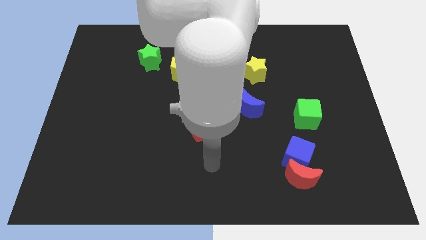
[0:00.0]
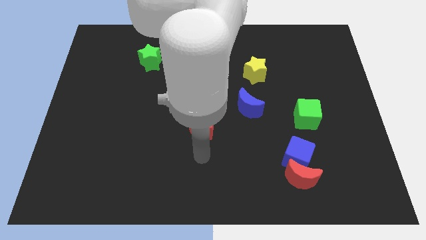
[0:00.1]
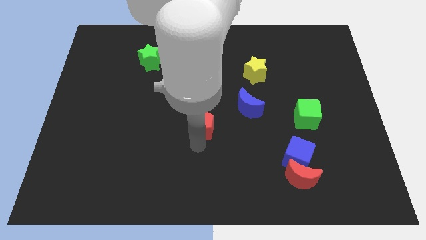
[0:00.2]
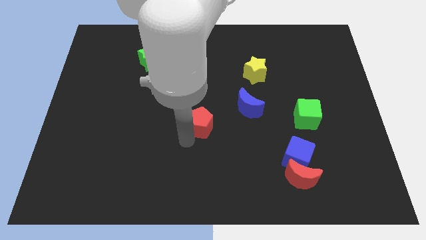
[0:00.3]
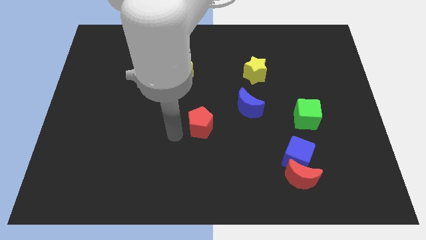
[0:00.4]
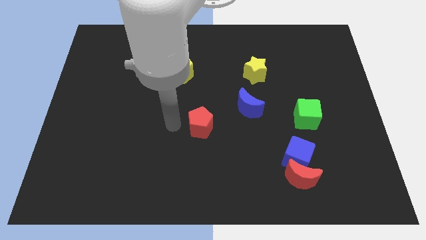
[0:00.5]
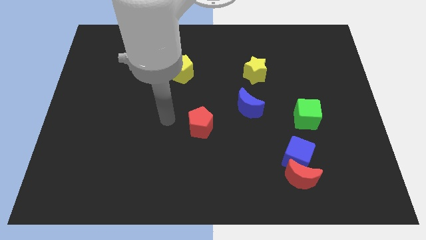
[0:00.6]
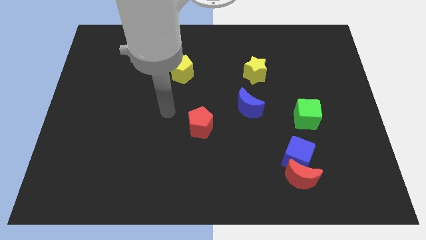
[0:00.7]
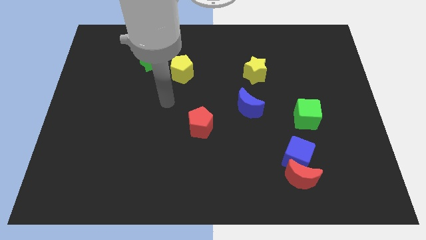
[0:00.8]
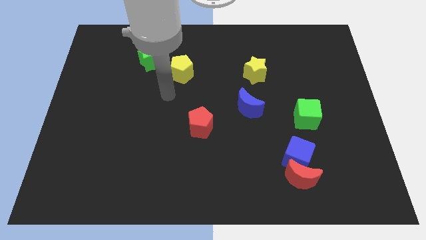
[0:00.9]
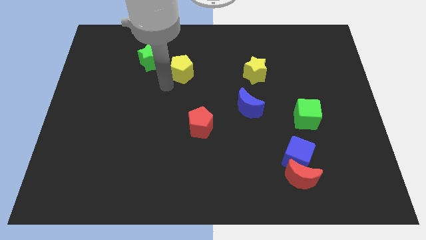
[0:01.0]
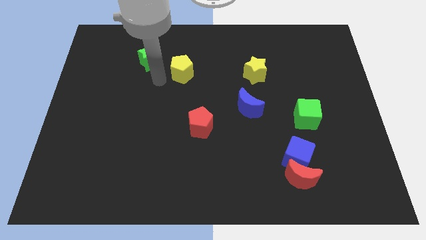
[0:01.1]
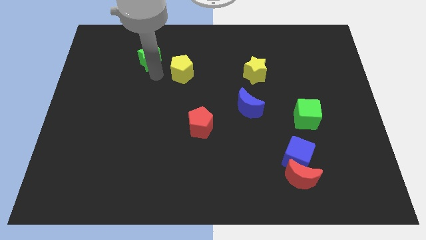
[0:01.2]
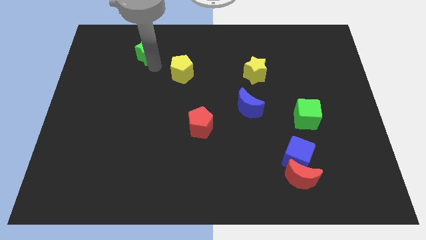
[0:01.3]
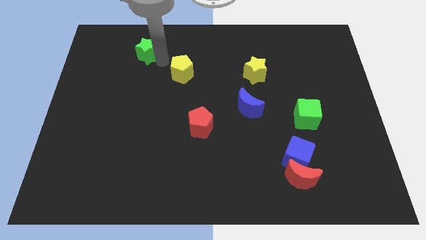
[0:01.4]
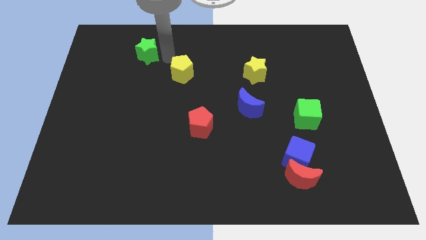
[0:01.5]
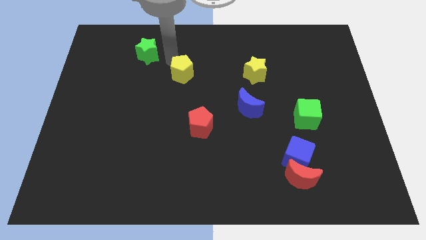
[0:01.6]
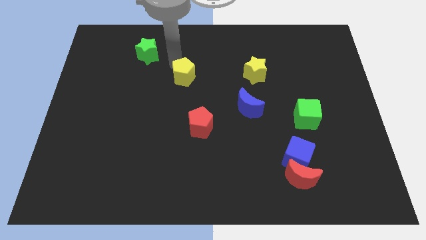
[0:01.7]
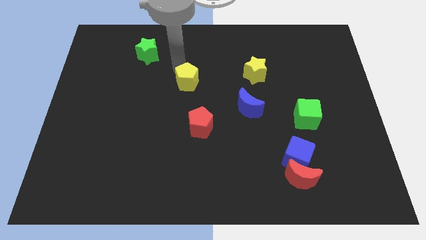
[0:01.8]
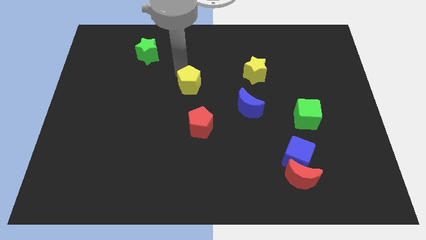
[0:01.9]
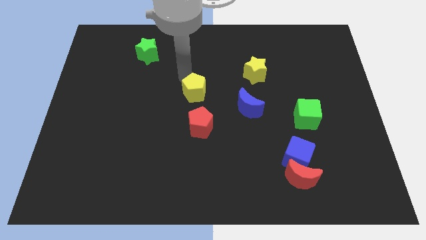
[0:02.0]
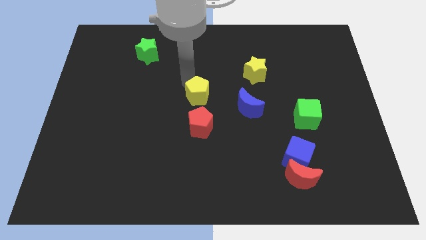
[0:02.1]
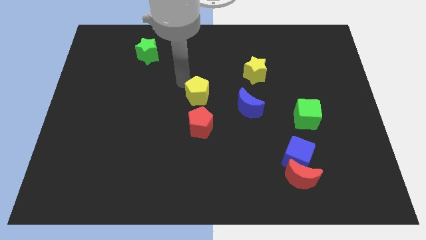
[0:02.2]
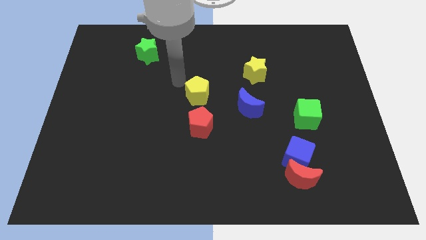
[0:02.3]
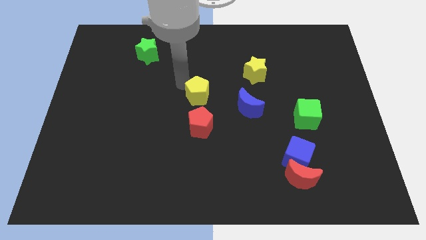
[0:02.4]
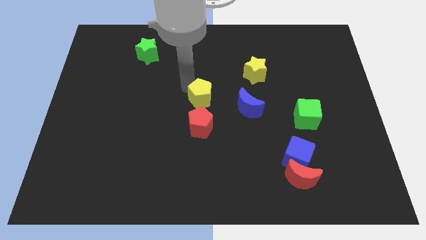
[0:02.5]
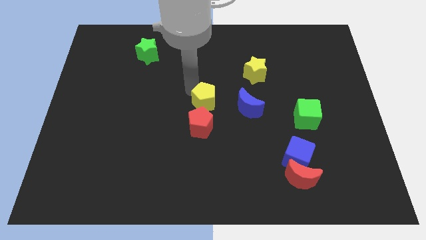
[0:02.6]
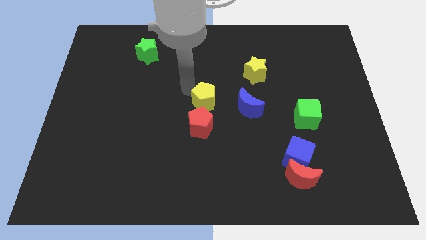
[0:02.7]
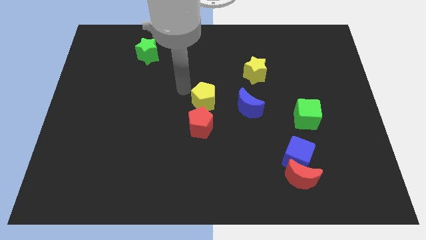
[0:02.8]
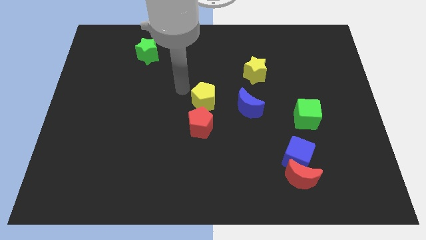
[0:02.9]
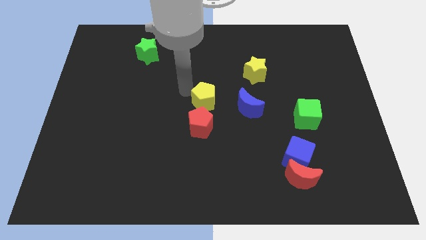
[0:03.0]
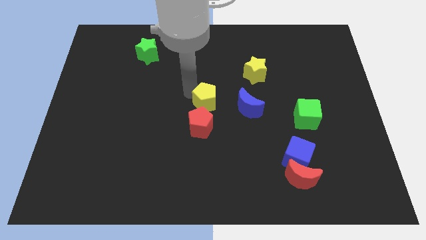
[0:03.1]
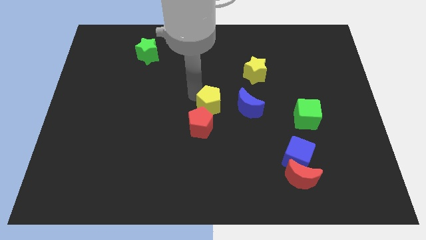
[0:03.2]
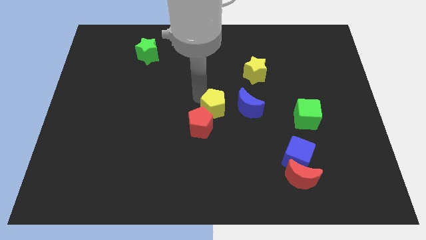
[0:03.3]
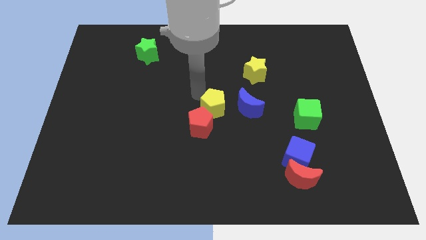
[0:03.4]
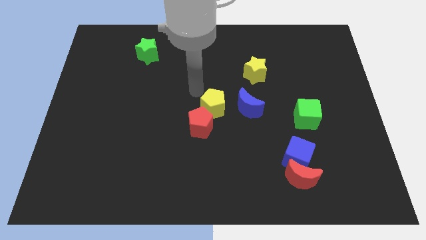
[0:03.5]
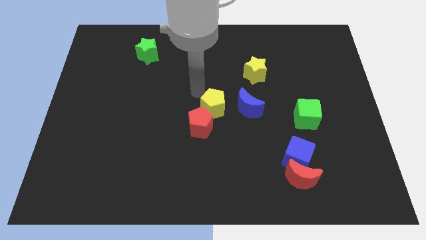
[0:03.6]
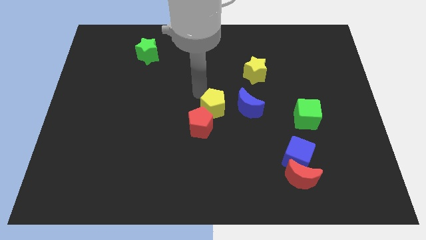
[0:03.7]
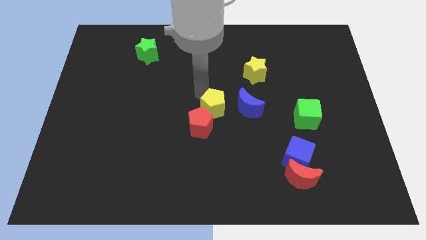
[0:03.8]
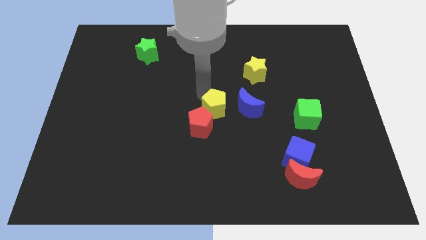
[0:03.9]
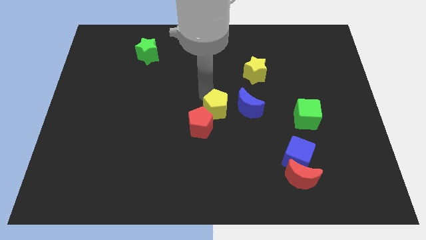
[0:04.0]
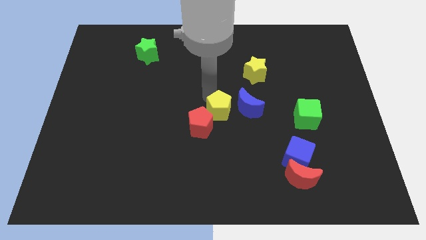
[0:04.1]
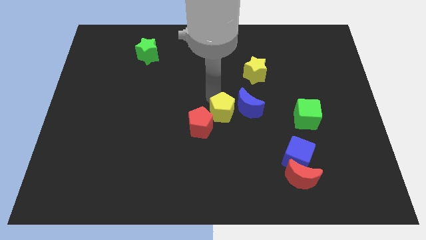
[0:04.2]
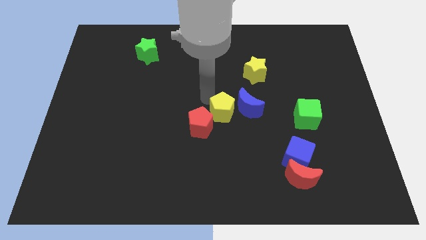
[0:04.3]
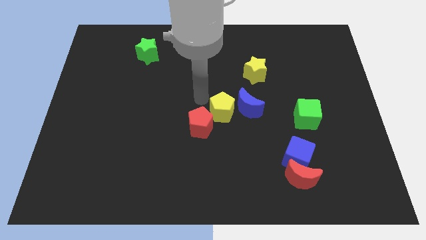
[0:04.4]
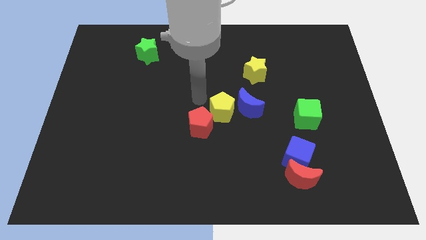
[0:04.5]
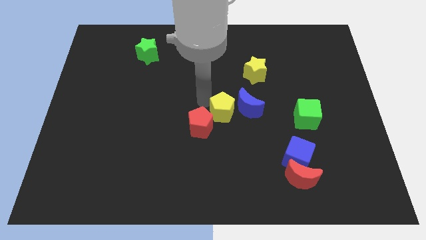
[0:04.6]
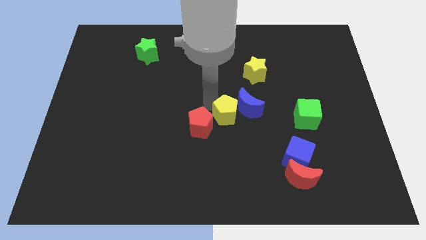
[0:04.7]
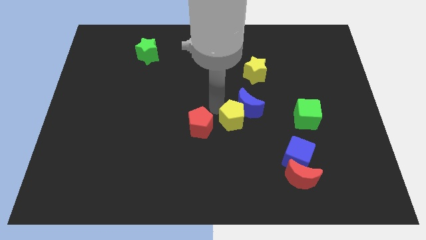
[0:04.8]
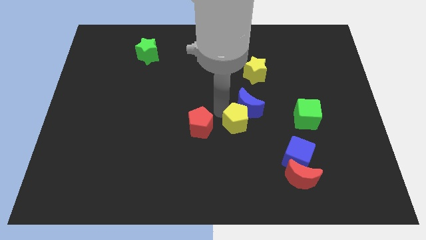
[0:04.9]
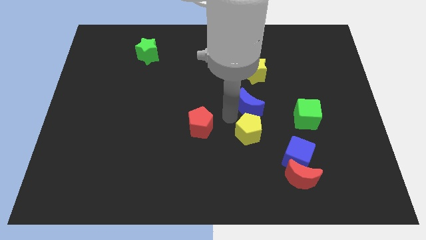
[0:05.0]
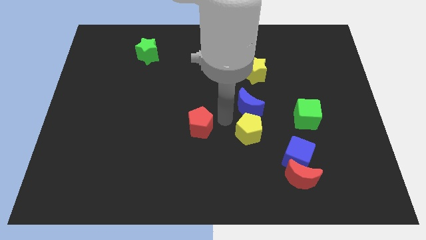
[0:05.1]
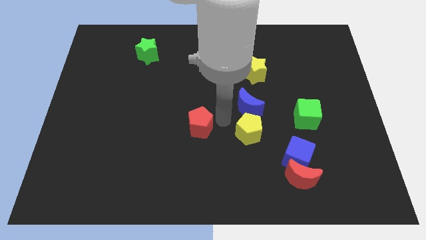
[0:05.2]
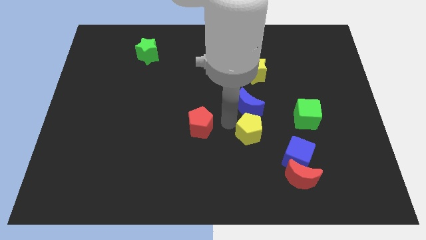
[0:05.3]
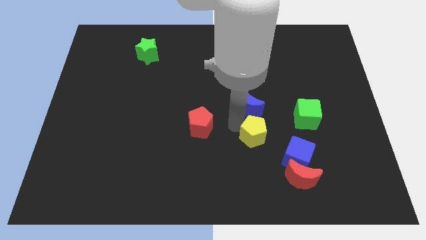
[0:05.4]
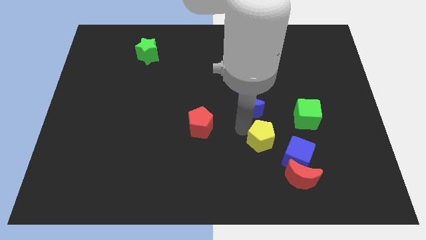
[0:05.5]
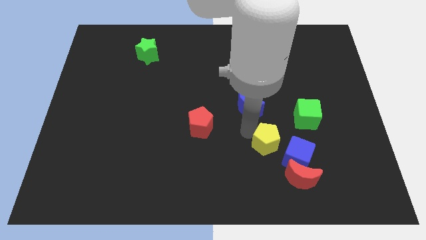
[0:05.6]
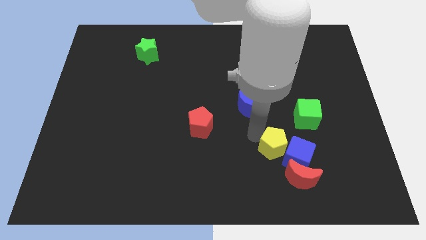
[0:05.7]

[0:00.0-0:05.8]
put the yellow pentagon to the blue cube

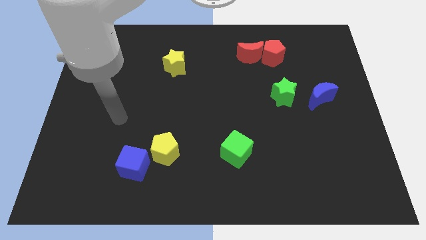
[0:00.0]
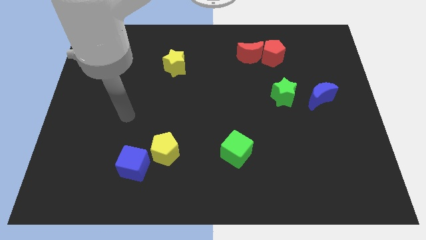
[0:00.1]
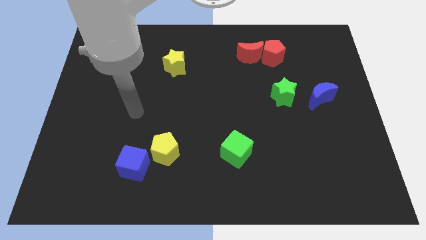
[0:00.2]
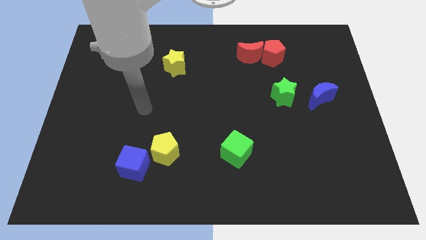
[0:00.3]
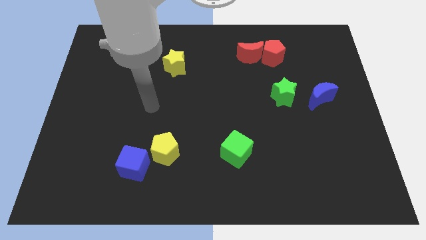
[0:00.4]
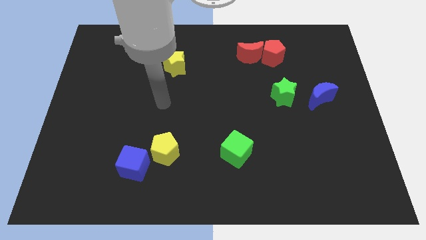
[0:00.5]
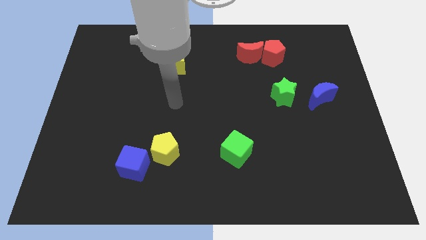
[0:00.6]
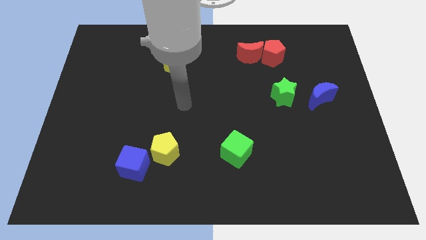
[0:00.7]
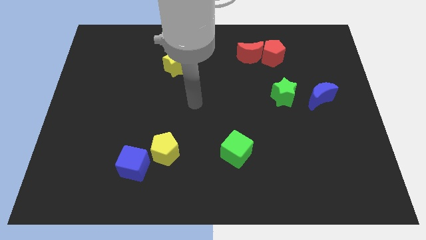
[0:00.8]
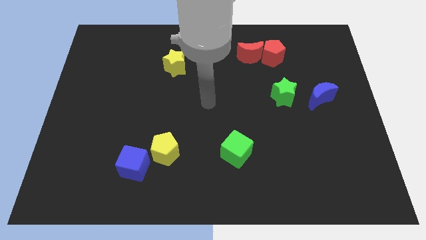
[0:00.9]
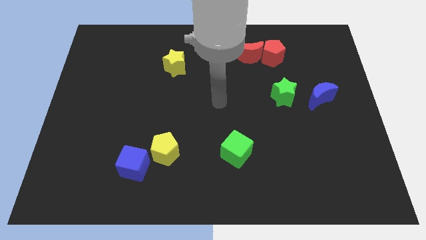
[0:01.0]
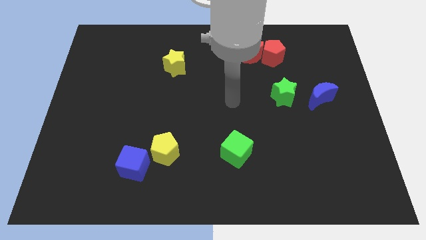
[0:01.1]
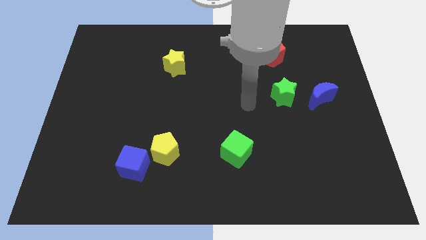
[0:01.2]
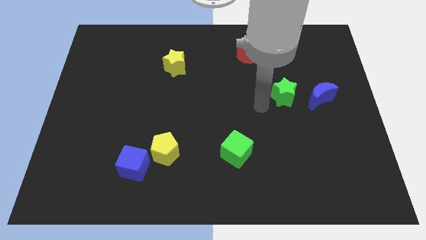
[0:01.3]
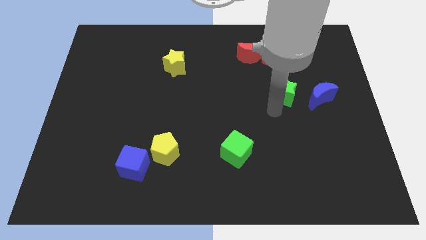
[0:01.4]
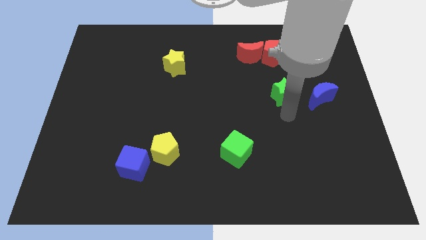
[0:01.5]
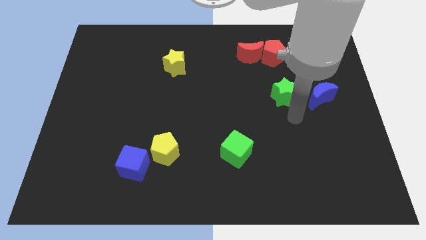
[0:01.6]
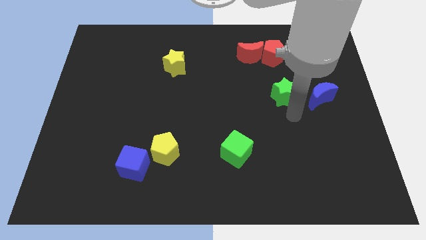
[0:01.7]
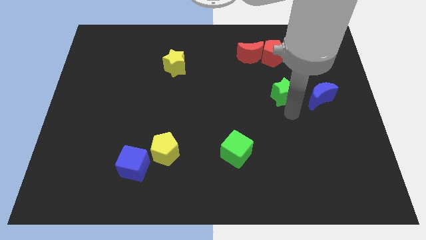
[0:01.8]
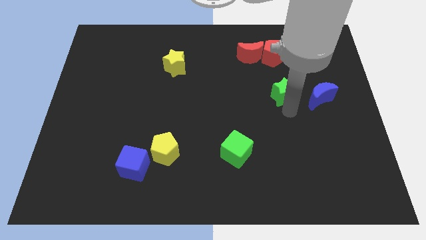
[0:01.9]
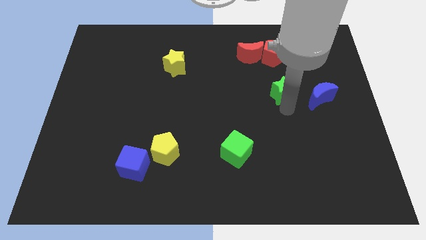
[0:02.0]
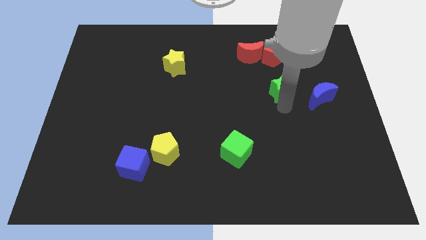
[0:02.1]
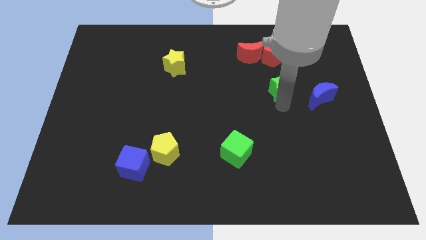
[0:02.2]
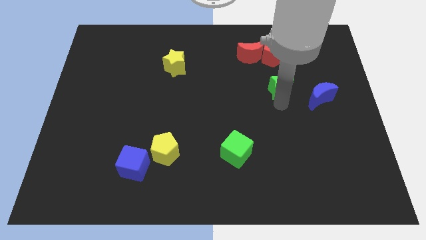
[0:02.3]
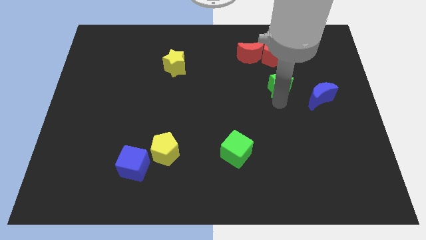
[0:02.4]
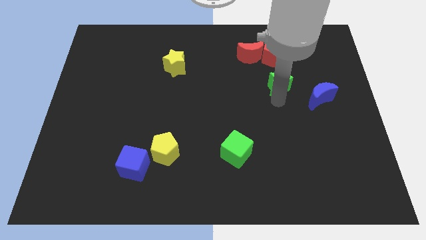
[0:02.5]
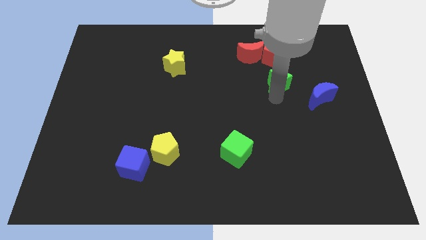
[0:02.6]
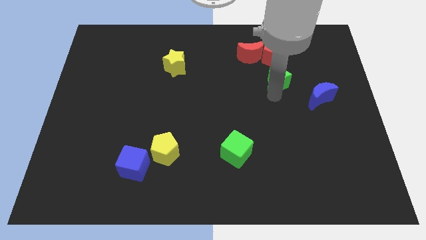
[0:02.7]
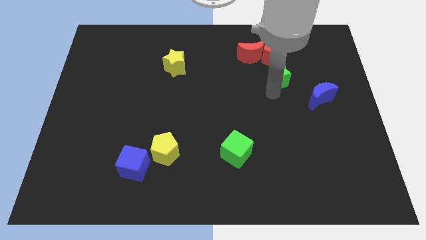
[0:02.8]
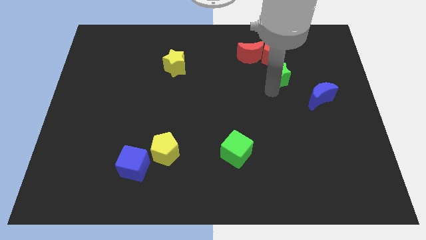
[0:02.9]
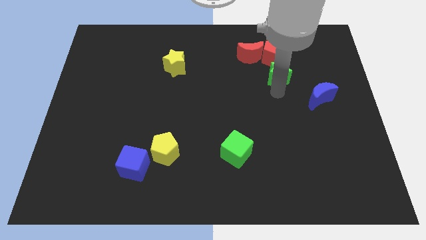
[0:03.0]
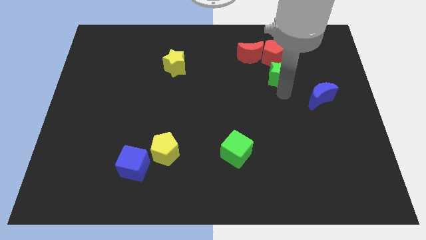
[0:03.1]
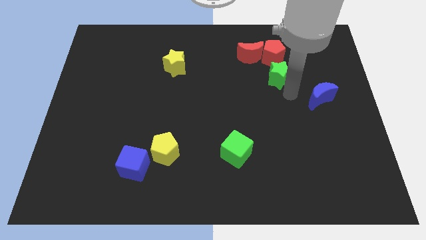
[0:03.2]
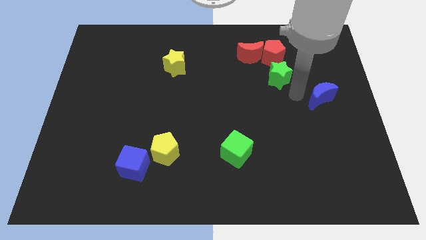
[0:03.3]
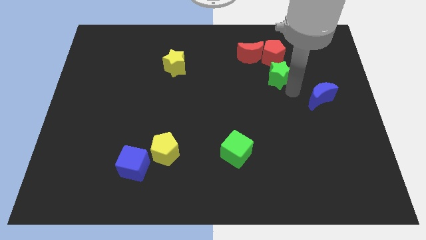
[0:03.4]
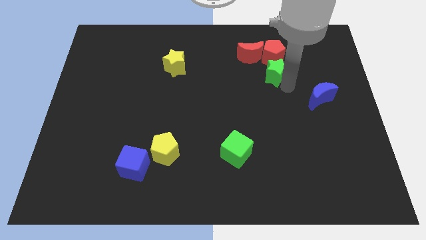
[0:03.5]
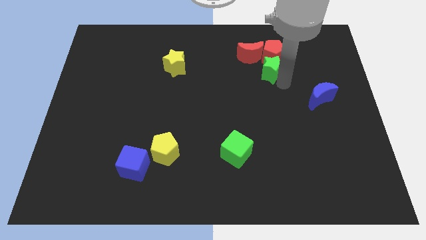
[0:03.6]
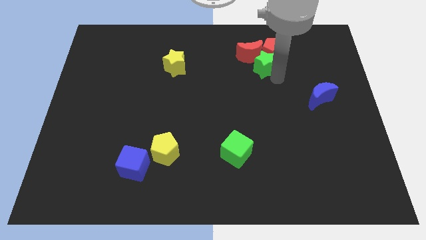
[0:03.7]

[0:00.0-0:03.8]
put the green star to the red moon
